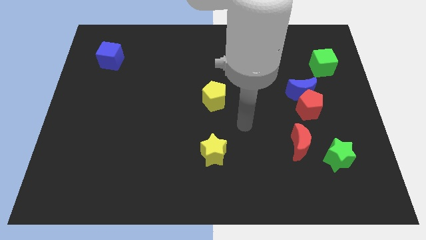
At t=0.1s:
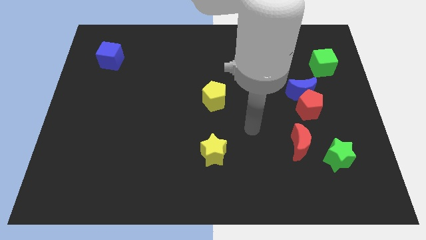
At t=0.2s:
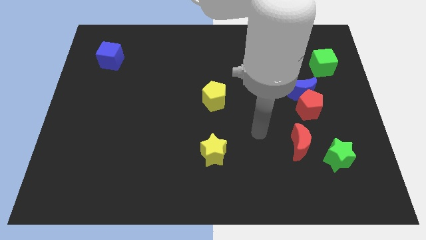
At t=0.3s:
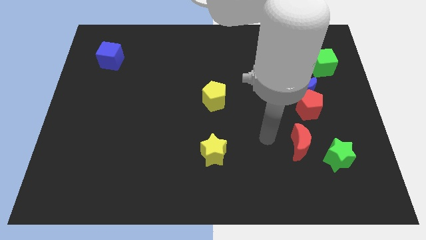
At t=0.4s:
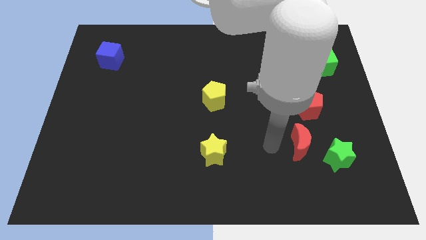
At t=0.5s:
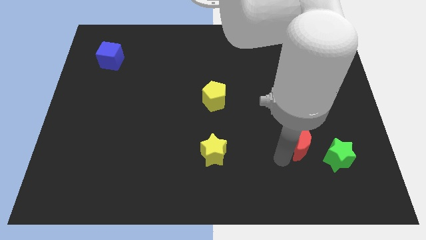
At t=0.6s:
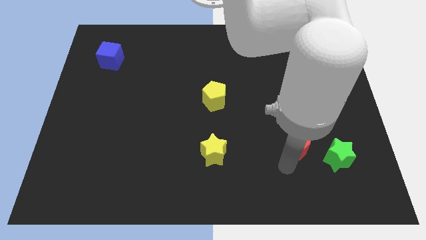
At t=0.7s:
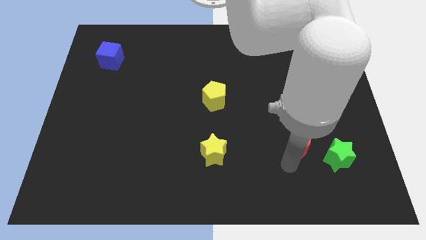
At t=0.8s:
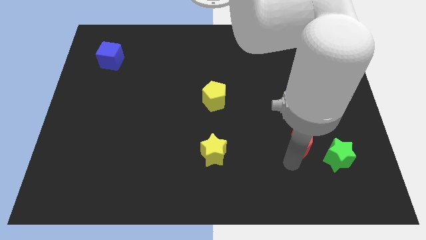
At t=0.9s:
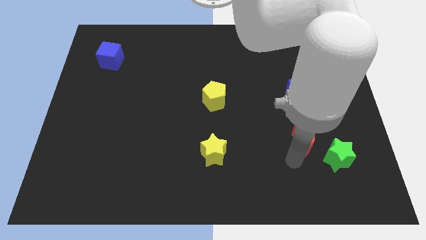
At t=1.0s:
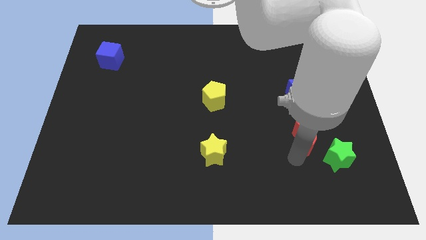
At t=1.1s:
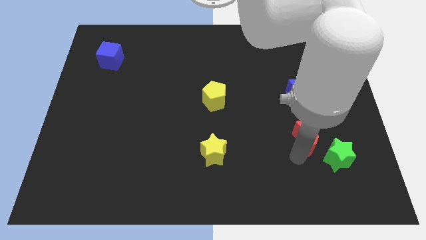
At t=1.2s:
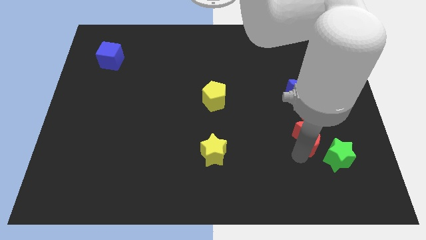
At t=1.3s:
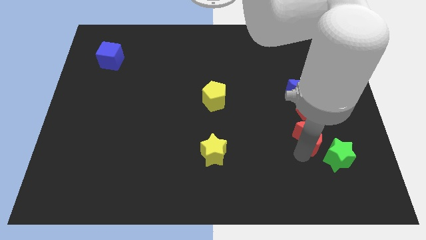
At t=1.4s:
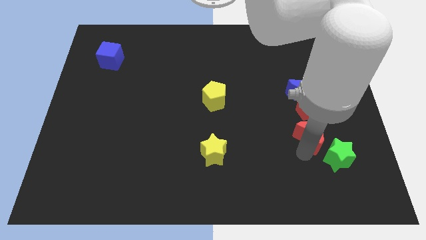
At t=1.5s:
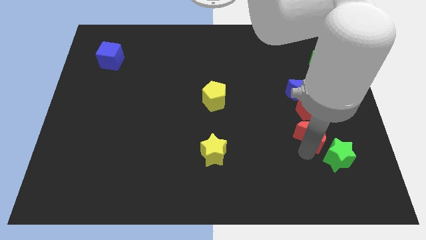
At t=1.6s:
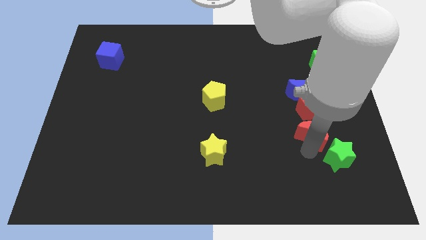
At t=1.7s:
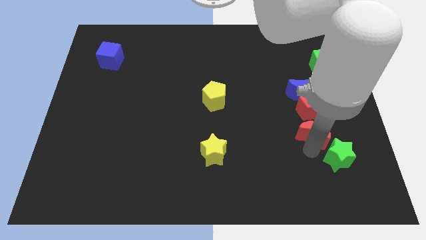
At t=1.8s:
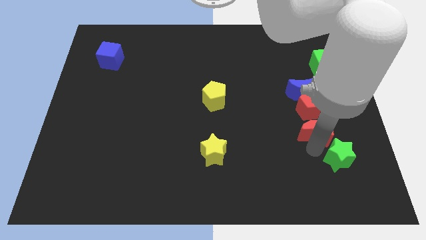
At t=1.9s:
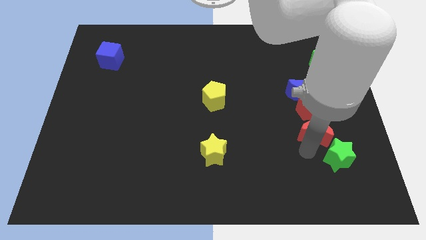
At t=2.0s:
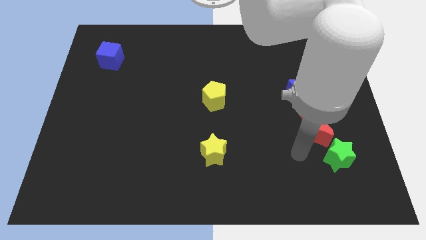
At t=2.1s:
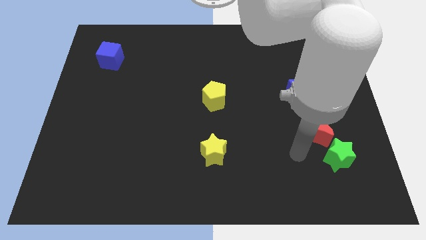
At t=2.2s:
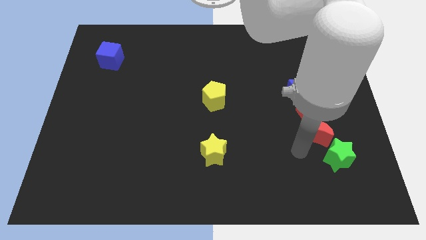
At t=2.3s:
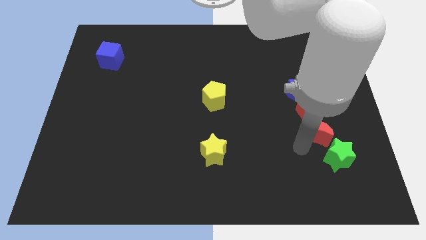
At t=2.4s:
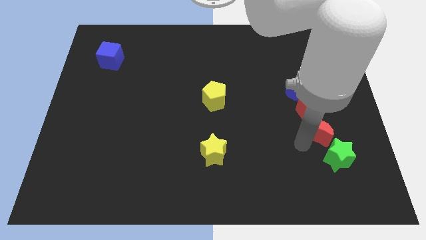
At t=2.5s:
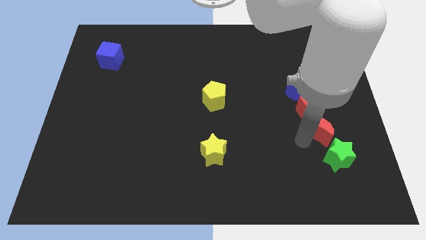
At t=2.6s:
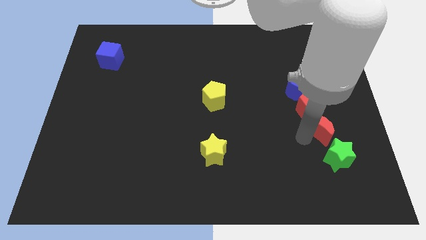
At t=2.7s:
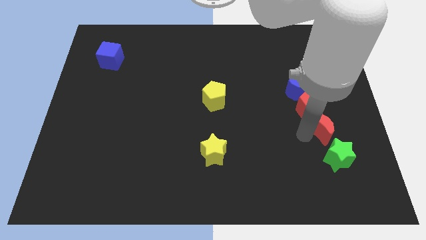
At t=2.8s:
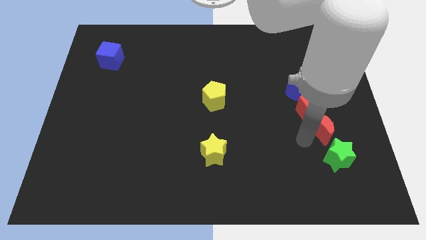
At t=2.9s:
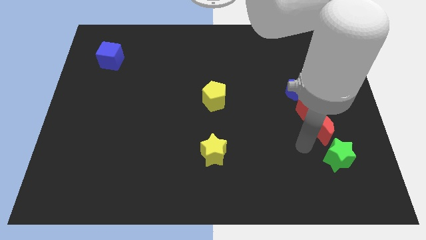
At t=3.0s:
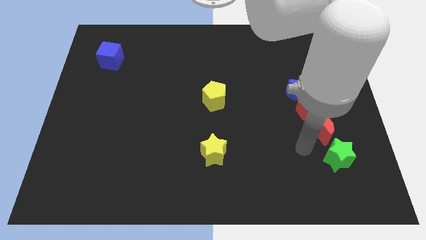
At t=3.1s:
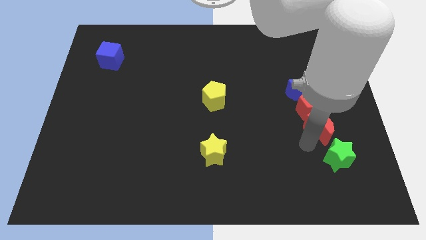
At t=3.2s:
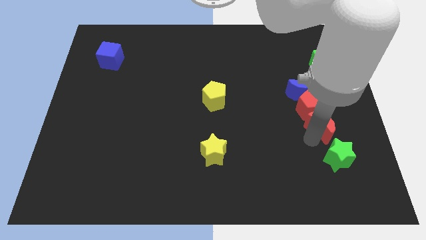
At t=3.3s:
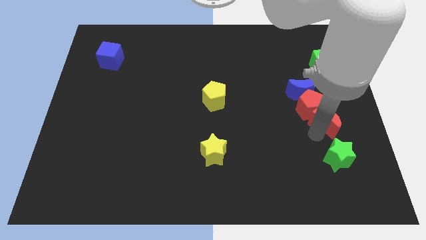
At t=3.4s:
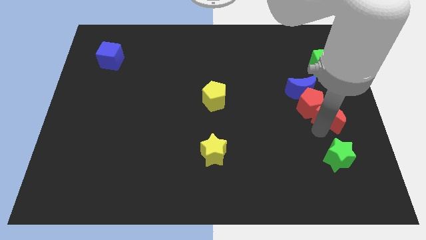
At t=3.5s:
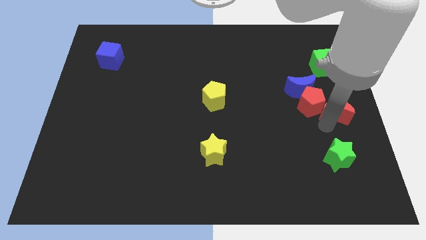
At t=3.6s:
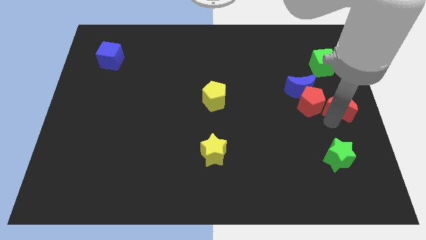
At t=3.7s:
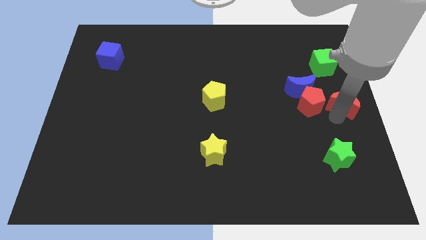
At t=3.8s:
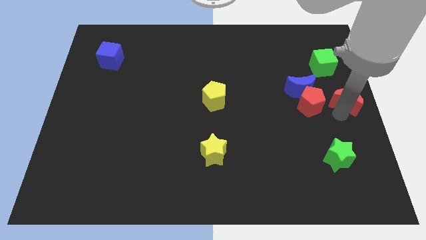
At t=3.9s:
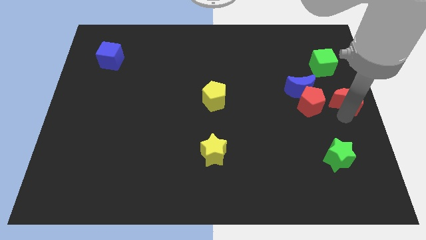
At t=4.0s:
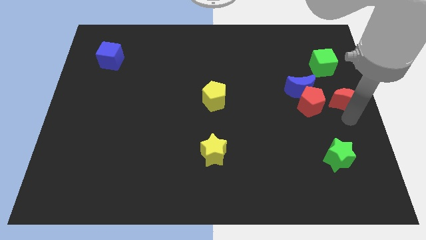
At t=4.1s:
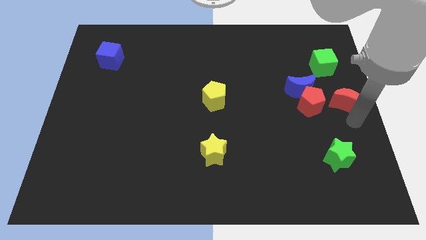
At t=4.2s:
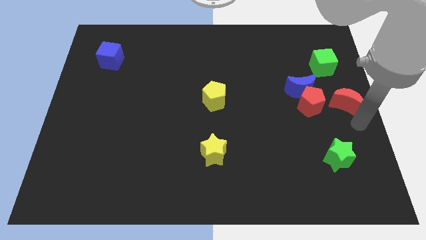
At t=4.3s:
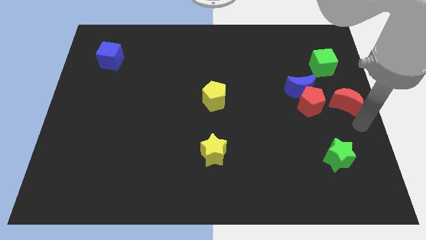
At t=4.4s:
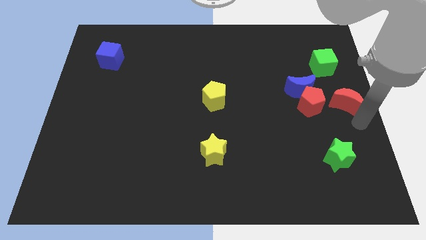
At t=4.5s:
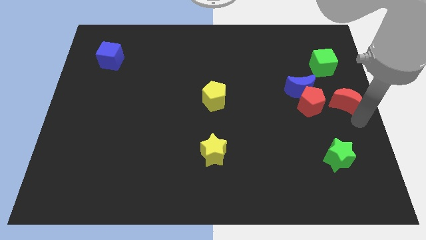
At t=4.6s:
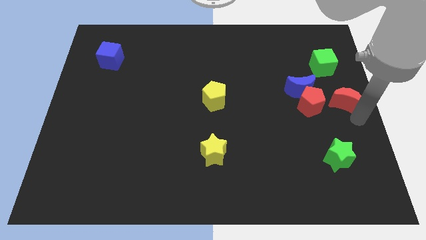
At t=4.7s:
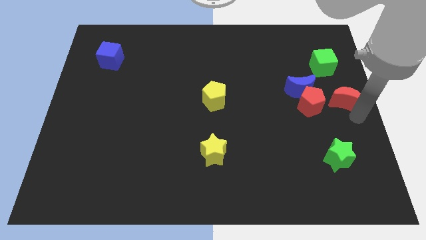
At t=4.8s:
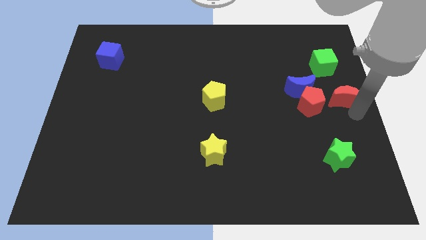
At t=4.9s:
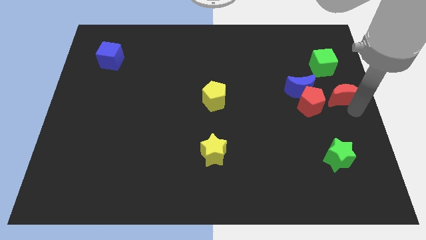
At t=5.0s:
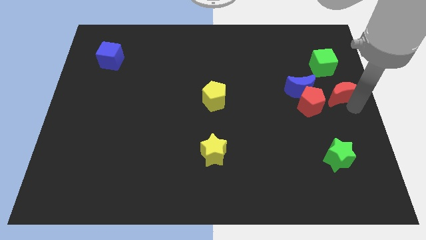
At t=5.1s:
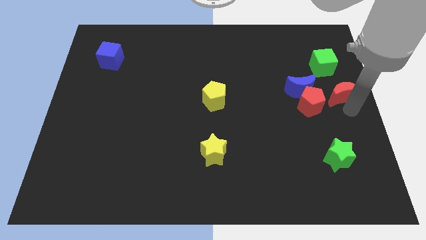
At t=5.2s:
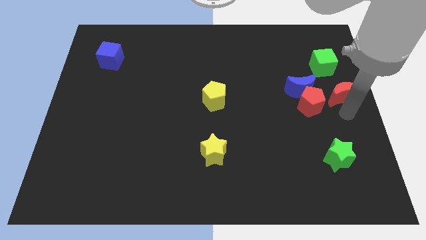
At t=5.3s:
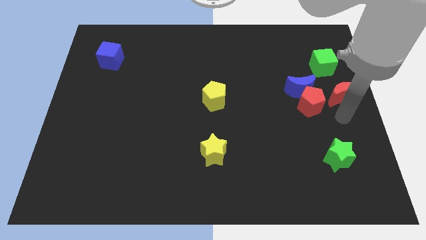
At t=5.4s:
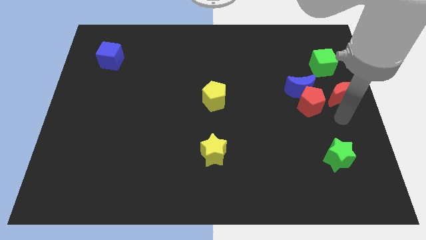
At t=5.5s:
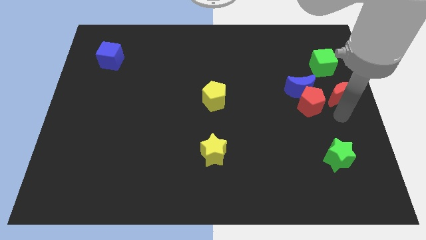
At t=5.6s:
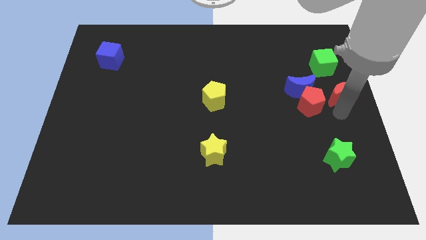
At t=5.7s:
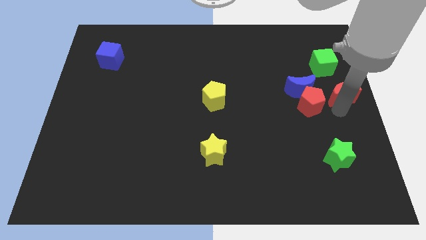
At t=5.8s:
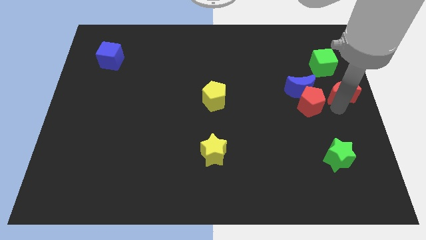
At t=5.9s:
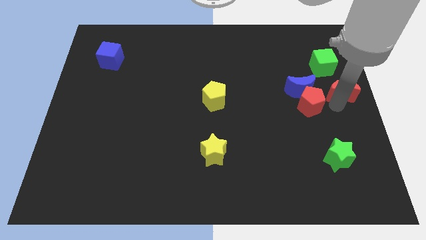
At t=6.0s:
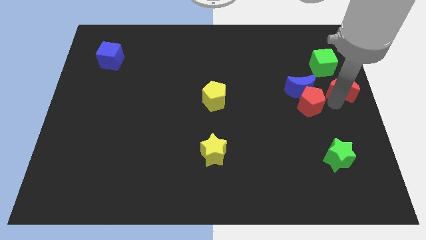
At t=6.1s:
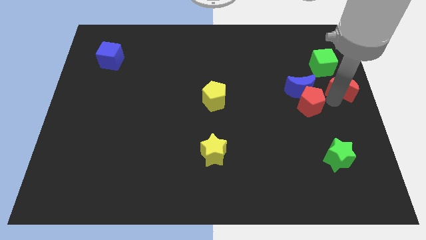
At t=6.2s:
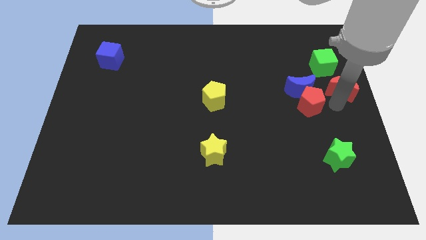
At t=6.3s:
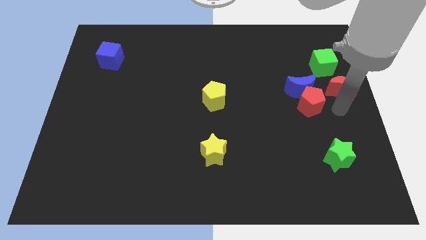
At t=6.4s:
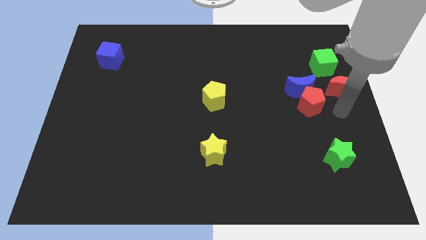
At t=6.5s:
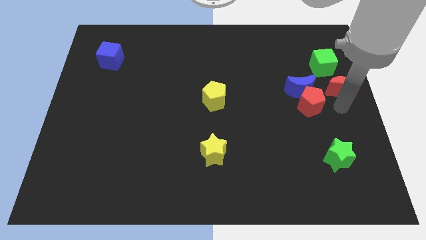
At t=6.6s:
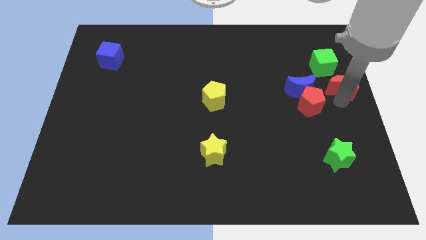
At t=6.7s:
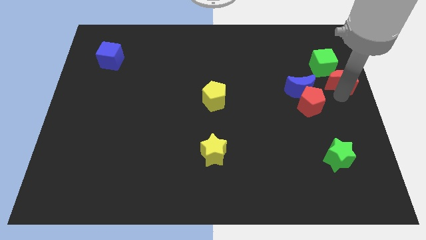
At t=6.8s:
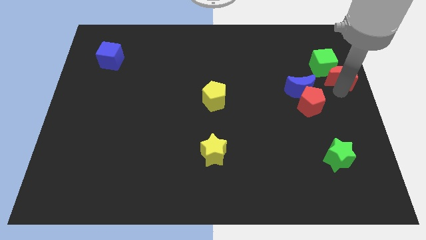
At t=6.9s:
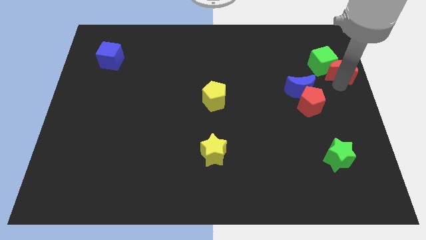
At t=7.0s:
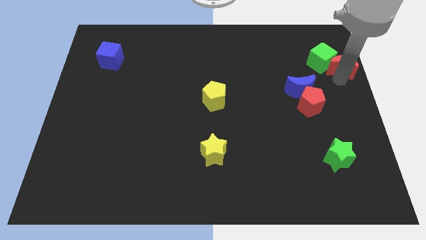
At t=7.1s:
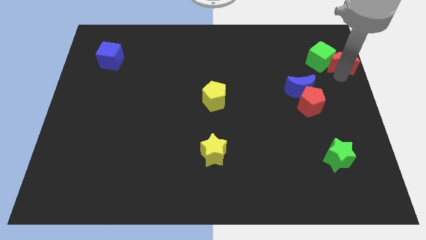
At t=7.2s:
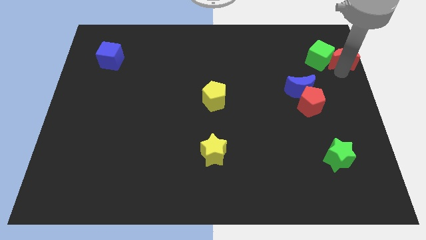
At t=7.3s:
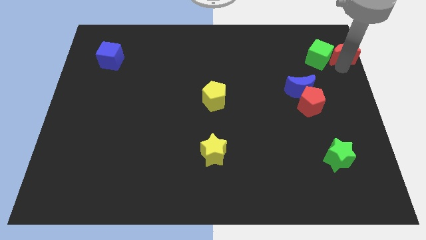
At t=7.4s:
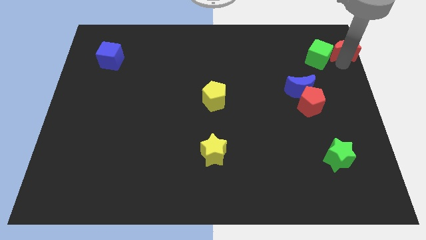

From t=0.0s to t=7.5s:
put the red moon to the upper right corner
